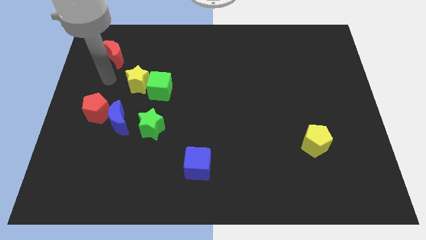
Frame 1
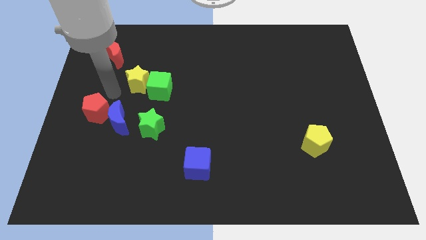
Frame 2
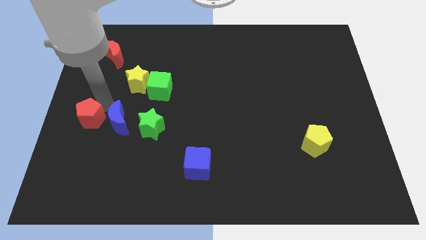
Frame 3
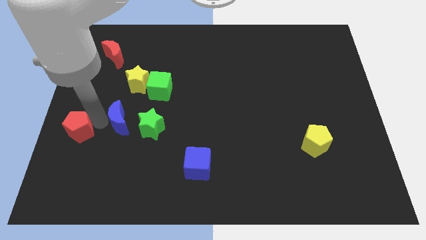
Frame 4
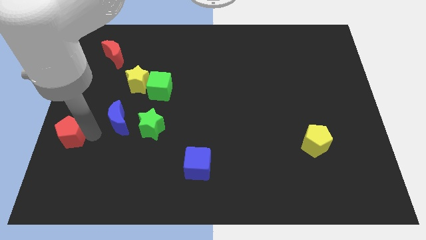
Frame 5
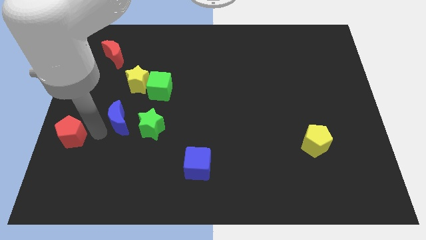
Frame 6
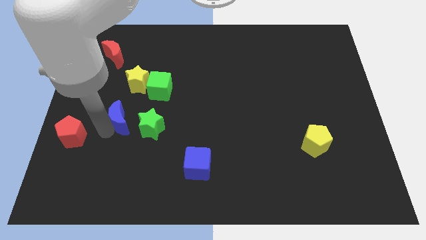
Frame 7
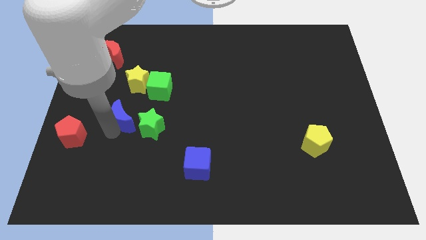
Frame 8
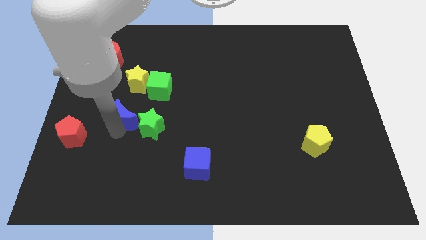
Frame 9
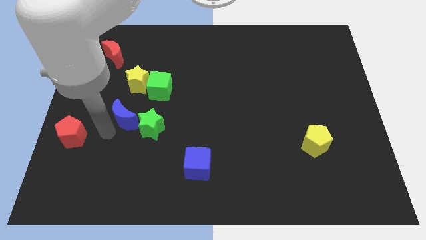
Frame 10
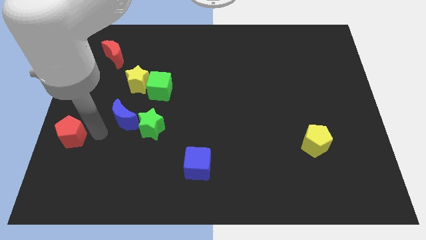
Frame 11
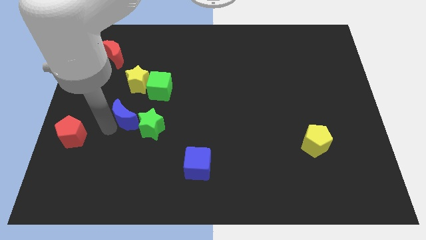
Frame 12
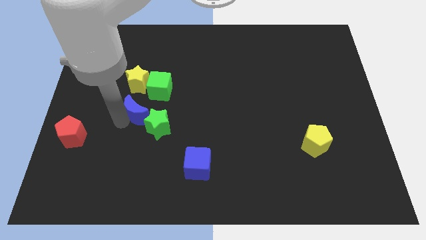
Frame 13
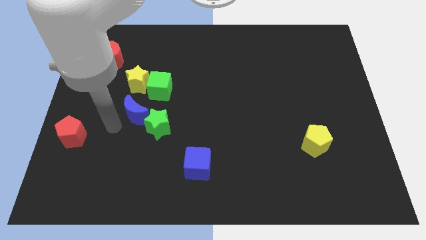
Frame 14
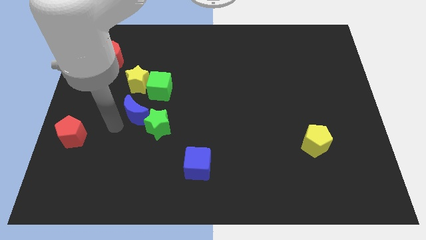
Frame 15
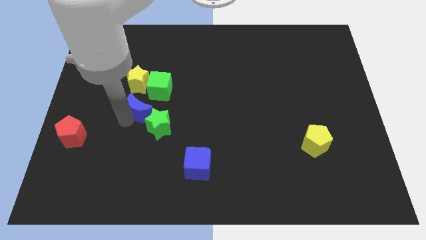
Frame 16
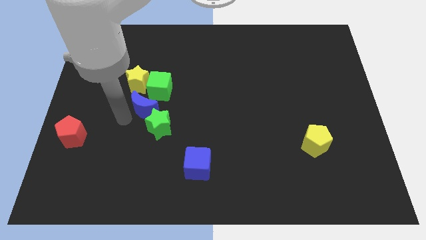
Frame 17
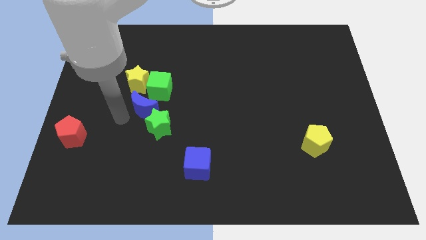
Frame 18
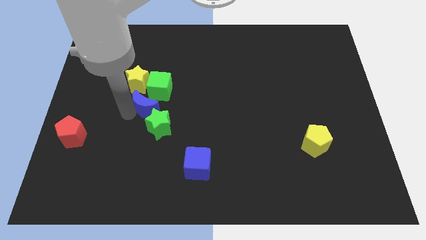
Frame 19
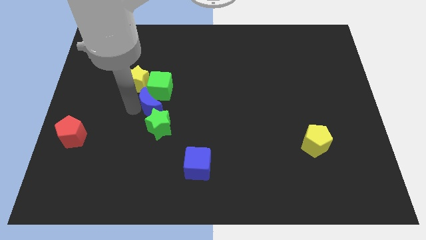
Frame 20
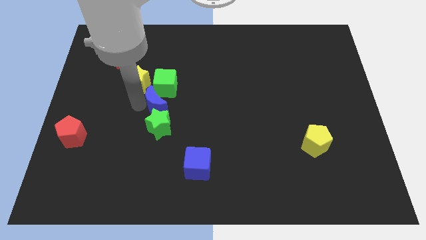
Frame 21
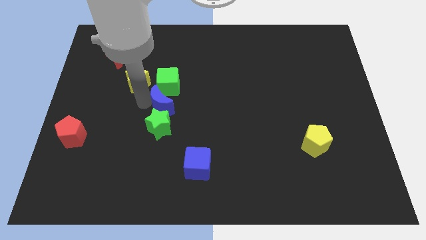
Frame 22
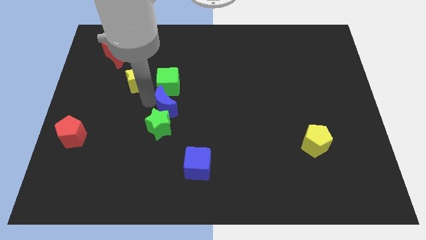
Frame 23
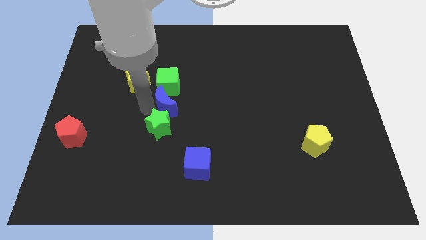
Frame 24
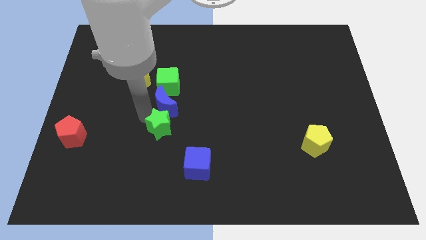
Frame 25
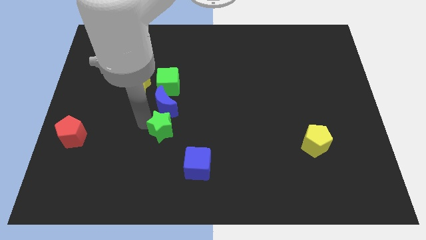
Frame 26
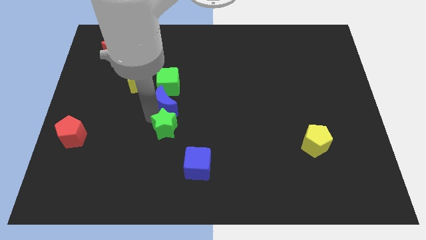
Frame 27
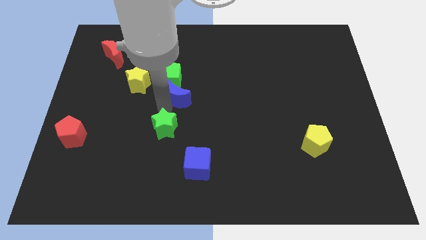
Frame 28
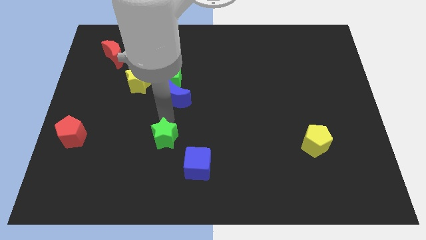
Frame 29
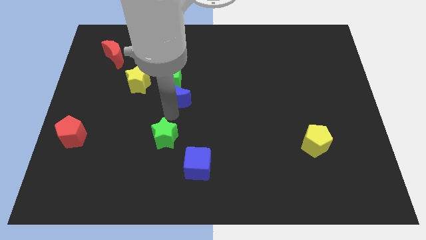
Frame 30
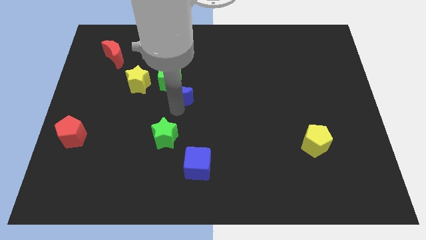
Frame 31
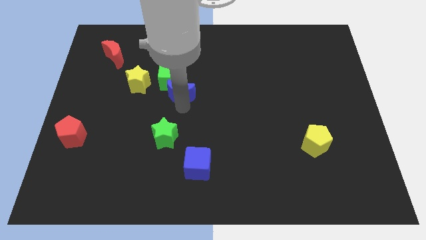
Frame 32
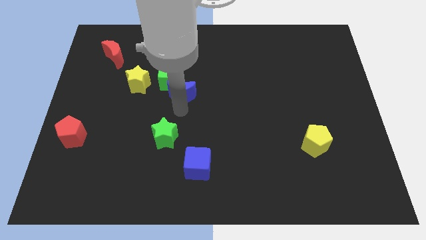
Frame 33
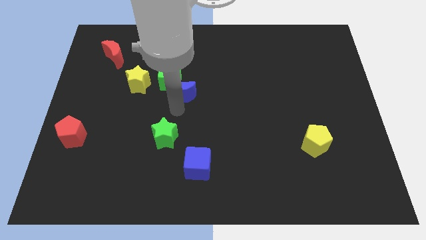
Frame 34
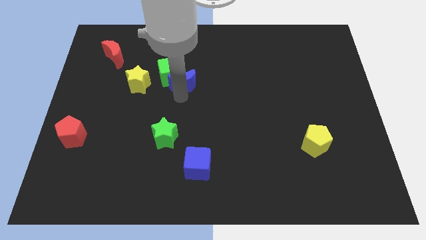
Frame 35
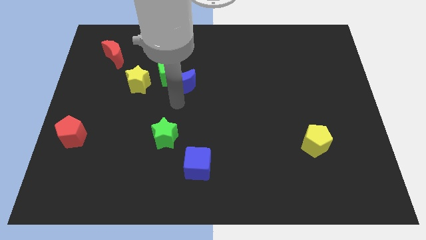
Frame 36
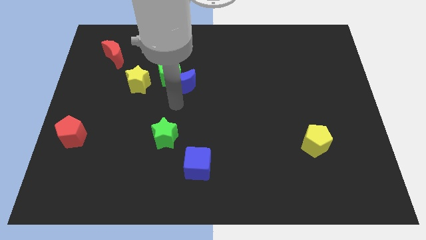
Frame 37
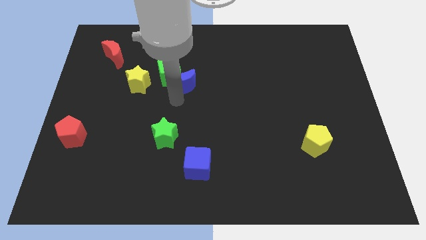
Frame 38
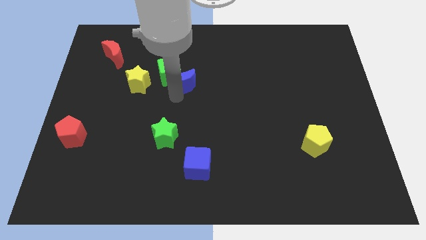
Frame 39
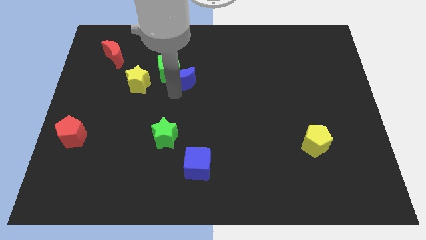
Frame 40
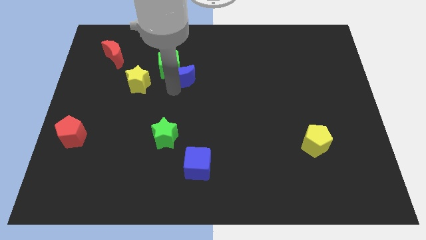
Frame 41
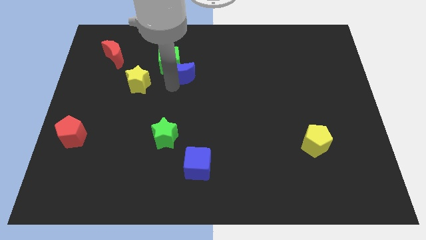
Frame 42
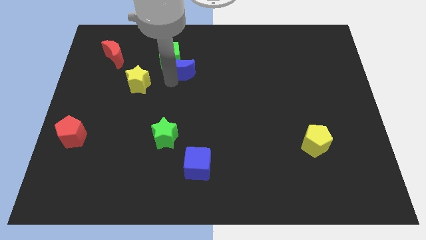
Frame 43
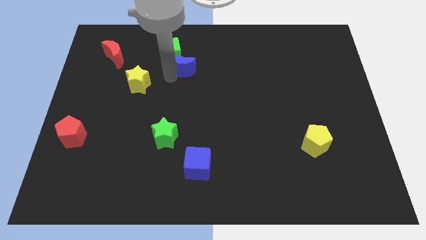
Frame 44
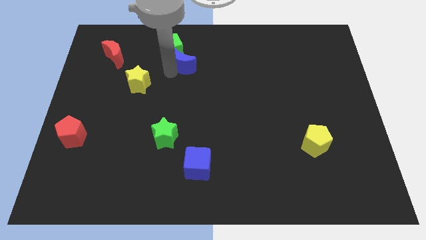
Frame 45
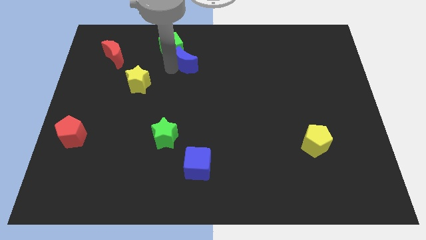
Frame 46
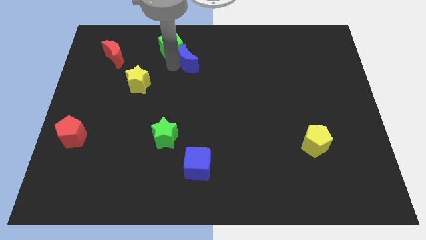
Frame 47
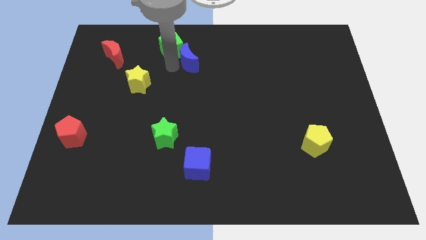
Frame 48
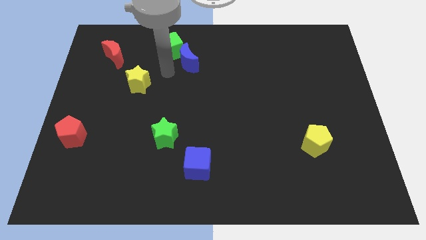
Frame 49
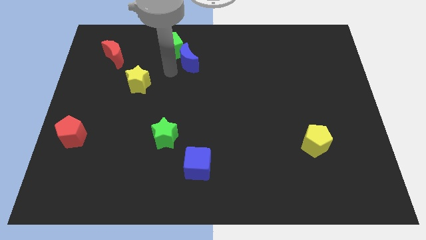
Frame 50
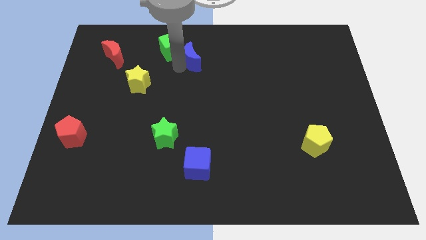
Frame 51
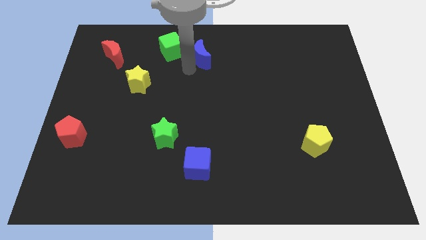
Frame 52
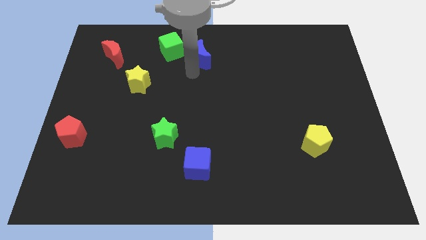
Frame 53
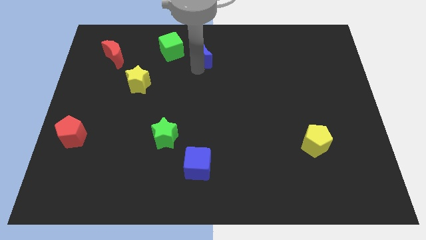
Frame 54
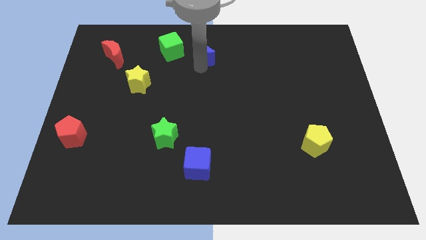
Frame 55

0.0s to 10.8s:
slide the blue moon to the top
